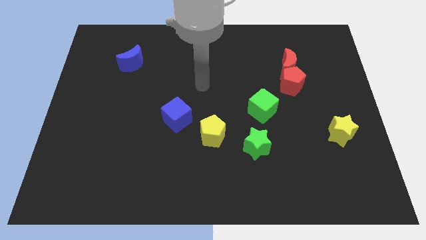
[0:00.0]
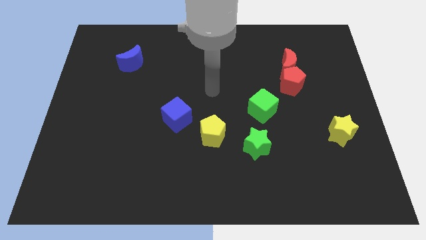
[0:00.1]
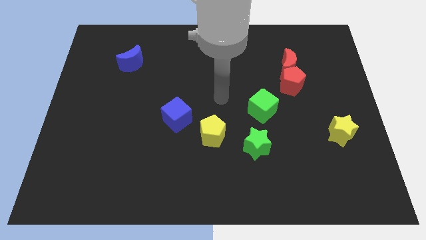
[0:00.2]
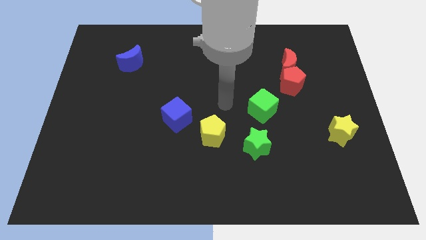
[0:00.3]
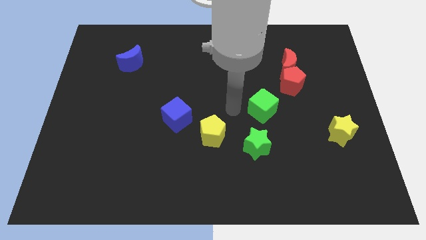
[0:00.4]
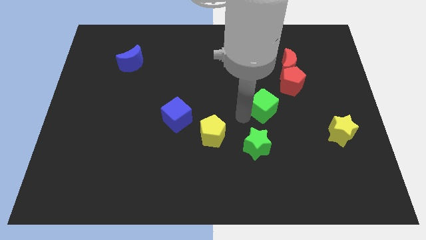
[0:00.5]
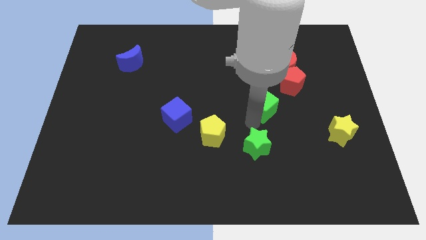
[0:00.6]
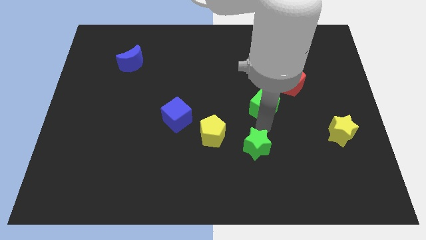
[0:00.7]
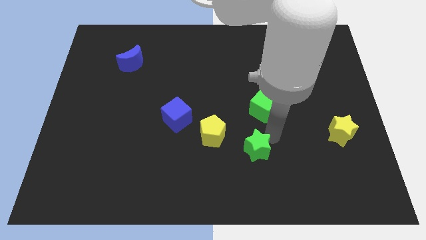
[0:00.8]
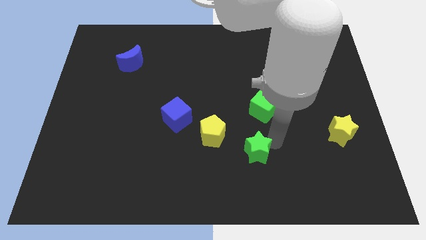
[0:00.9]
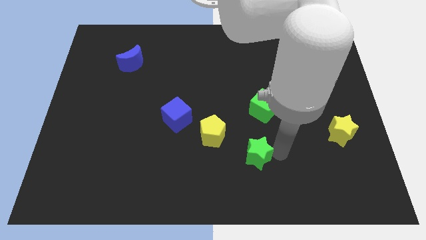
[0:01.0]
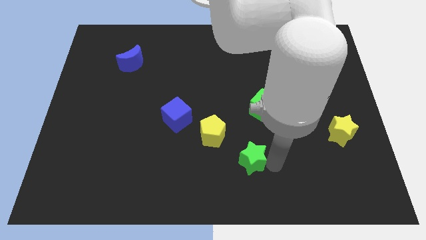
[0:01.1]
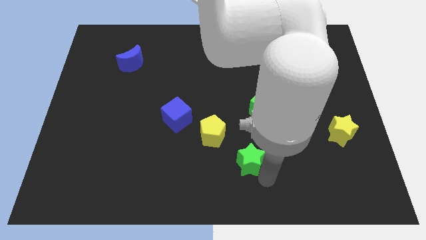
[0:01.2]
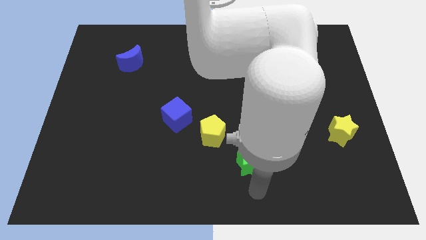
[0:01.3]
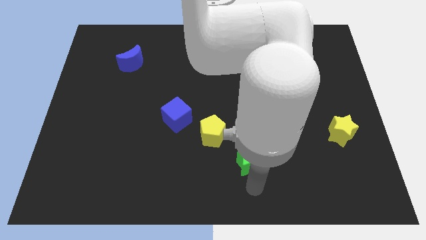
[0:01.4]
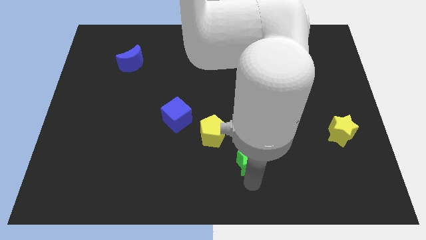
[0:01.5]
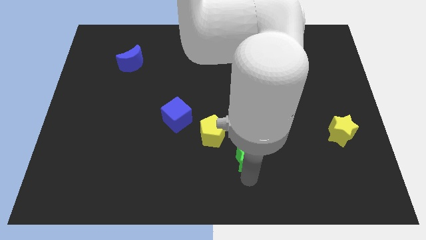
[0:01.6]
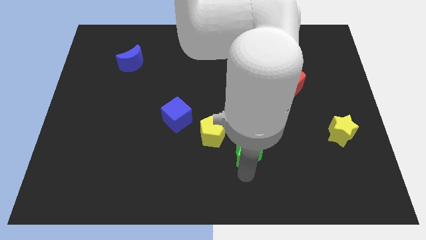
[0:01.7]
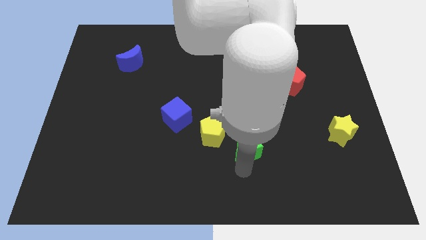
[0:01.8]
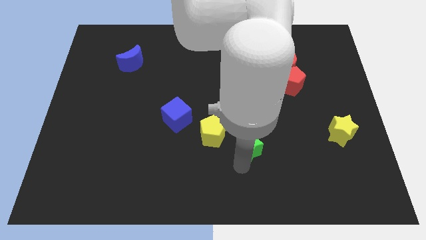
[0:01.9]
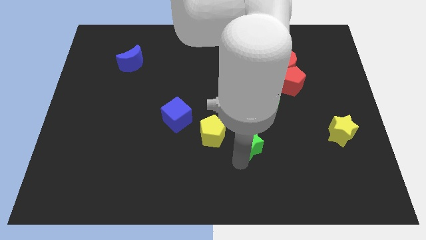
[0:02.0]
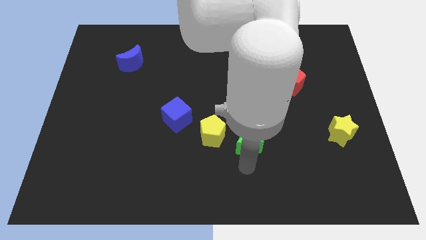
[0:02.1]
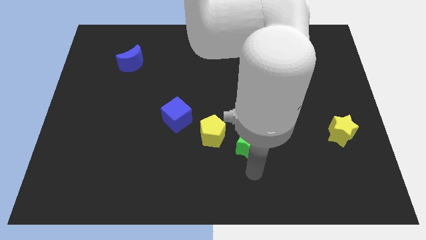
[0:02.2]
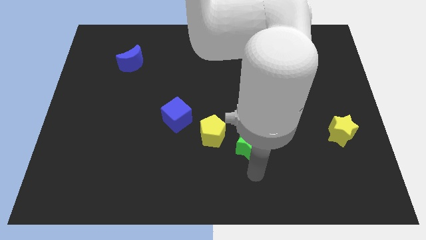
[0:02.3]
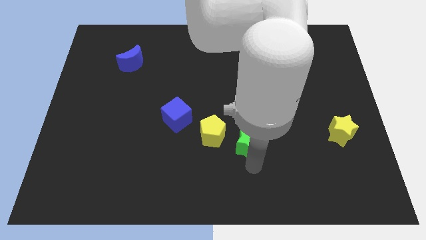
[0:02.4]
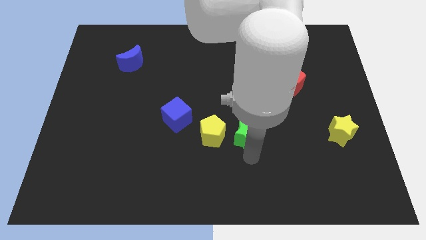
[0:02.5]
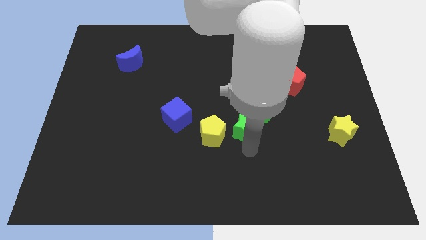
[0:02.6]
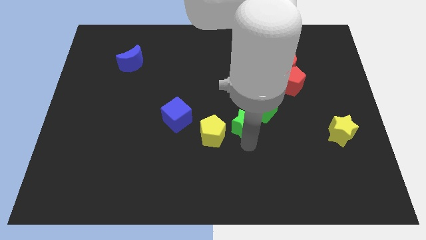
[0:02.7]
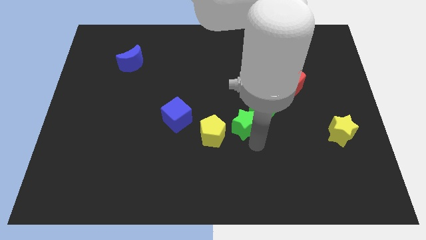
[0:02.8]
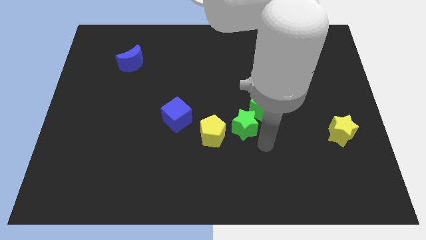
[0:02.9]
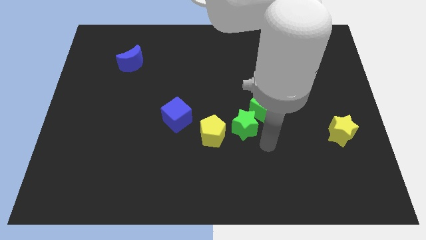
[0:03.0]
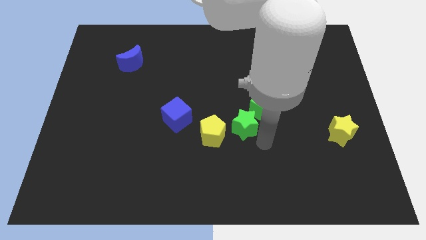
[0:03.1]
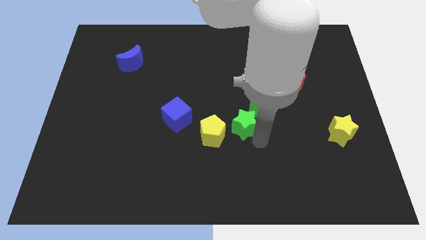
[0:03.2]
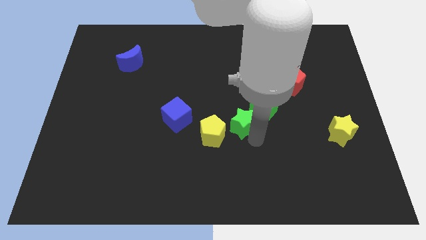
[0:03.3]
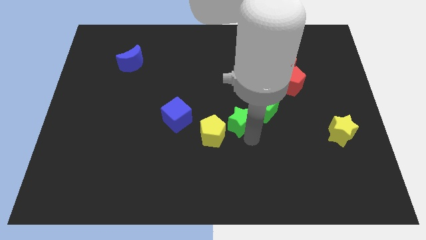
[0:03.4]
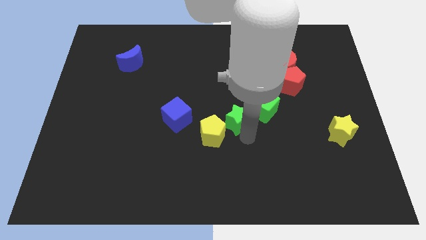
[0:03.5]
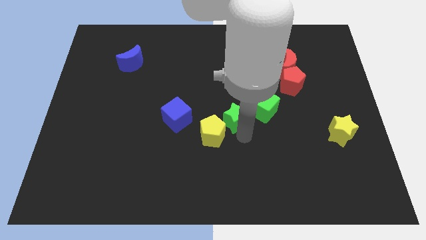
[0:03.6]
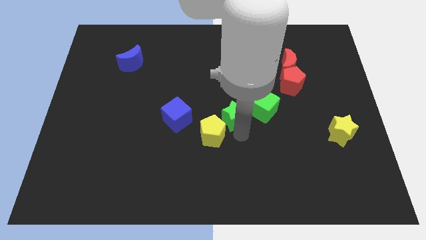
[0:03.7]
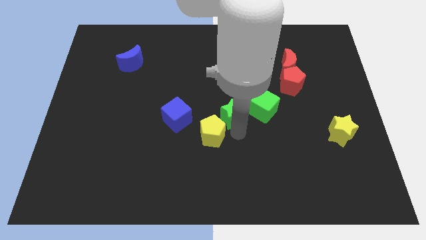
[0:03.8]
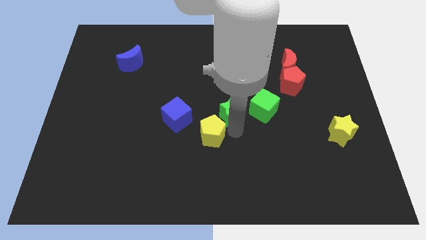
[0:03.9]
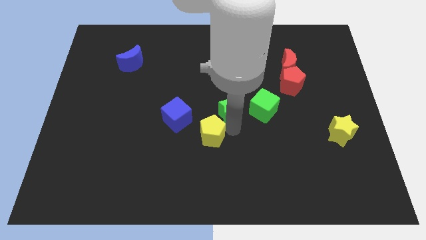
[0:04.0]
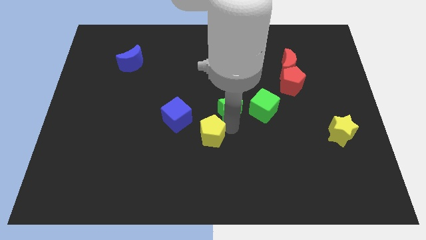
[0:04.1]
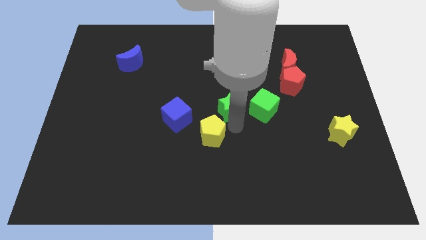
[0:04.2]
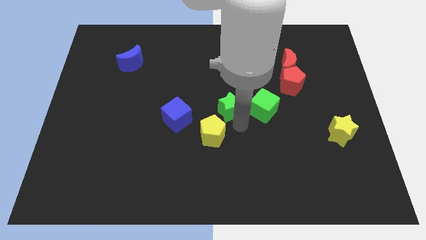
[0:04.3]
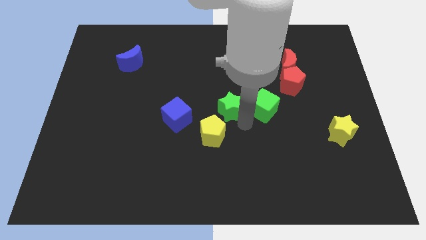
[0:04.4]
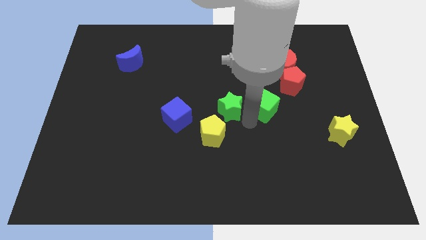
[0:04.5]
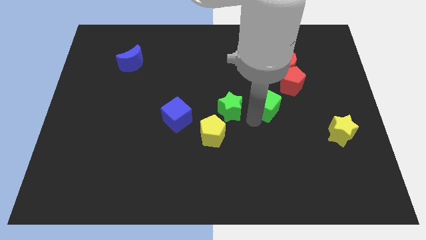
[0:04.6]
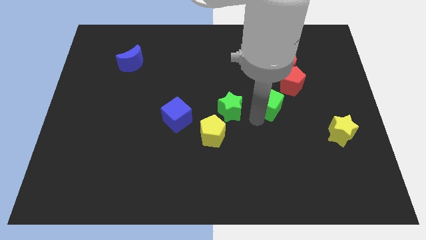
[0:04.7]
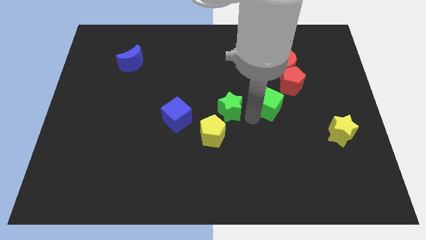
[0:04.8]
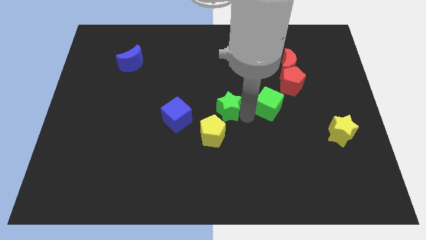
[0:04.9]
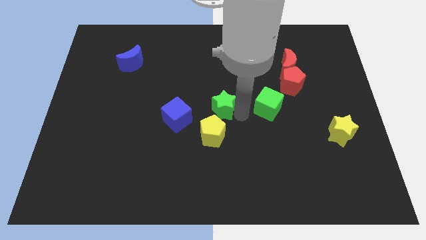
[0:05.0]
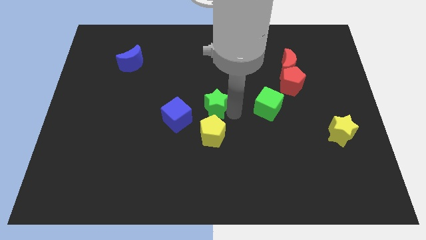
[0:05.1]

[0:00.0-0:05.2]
put the green star to the top right side of the blue cube

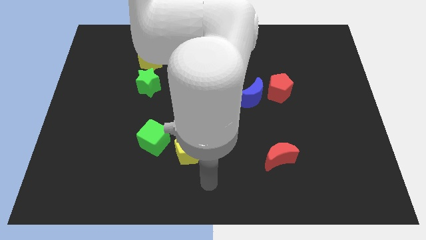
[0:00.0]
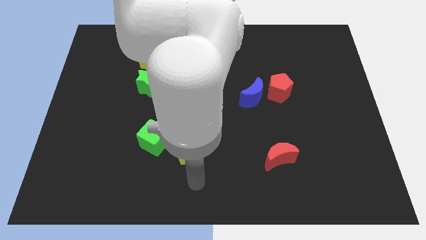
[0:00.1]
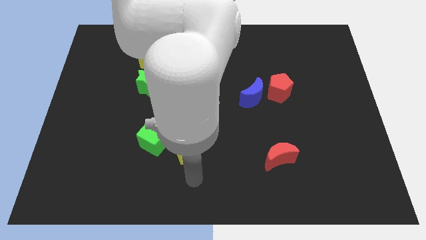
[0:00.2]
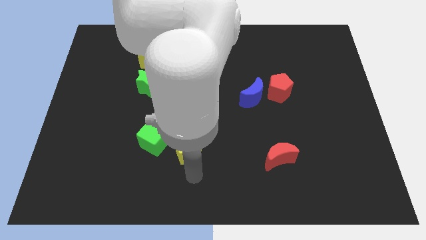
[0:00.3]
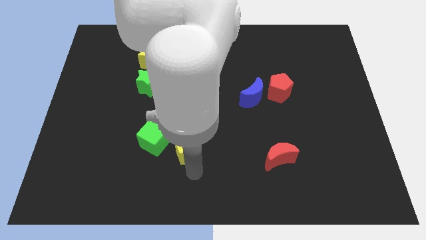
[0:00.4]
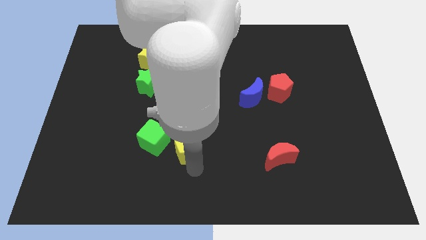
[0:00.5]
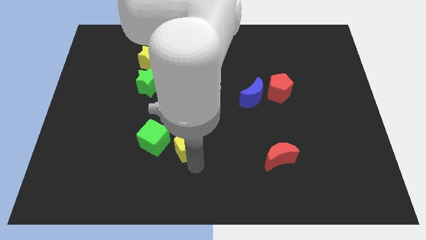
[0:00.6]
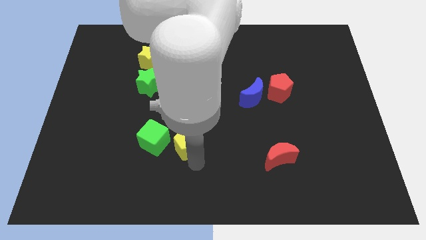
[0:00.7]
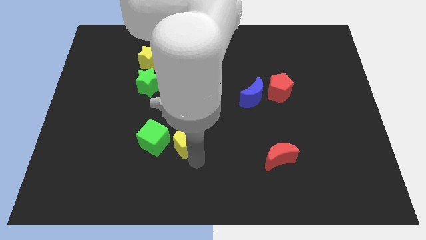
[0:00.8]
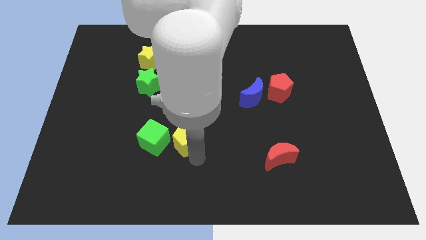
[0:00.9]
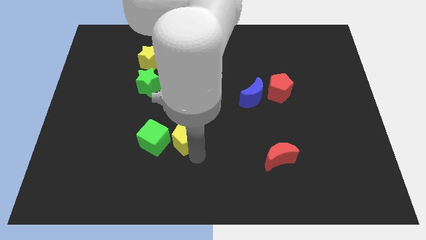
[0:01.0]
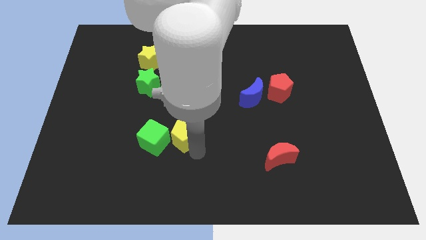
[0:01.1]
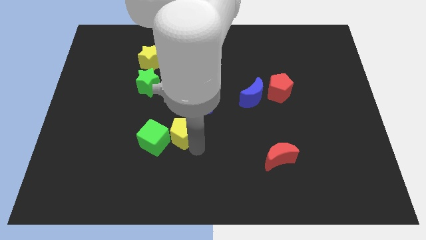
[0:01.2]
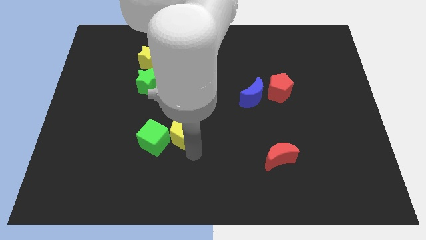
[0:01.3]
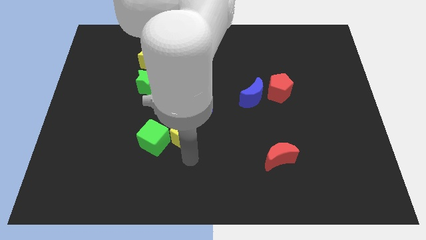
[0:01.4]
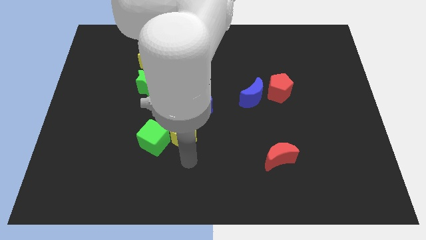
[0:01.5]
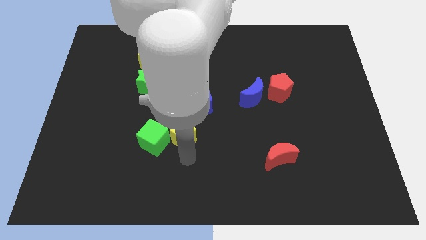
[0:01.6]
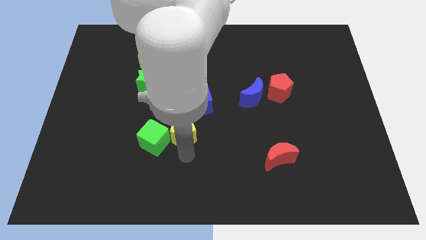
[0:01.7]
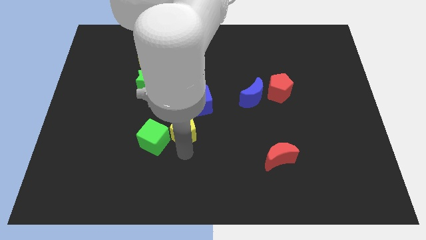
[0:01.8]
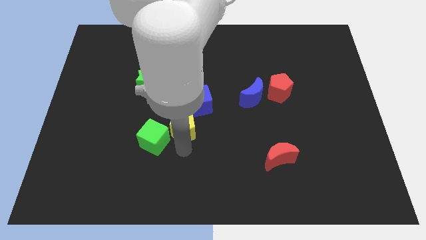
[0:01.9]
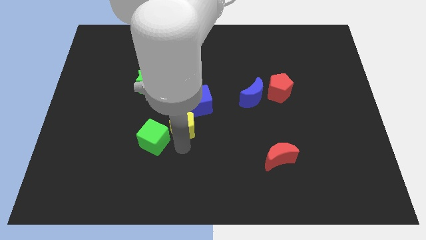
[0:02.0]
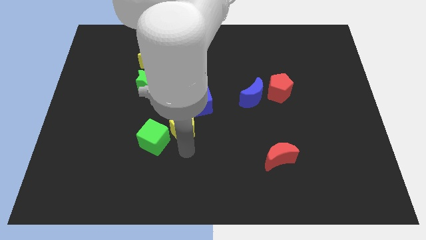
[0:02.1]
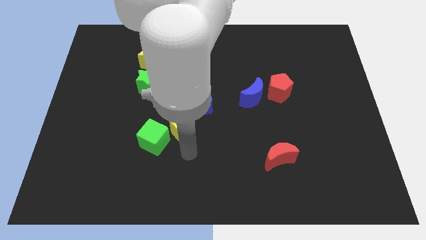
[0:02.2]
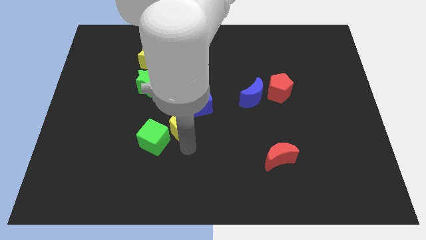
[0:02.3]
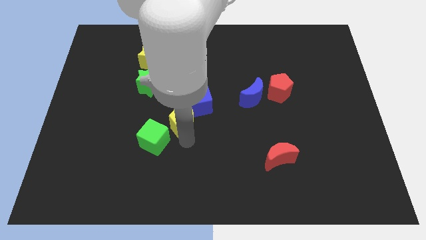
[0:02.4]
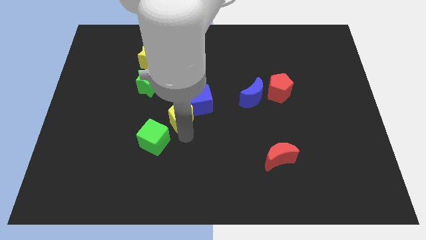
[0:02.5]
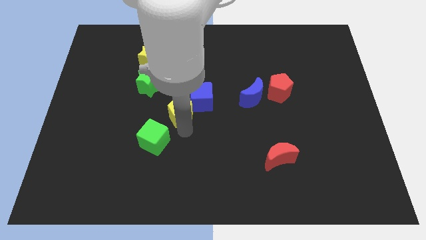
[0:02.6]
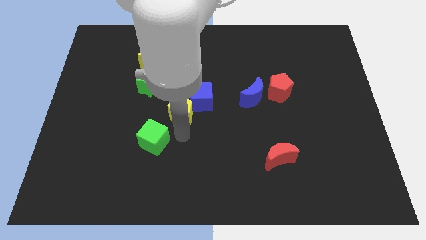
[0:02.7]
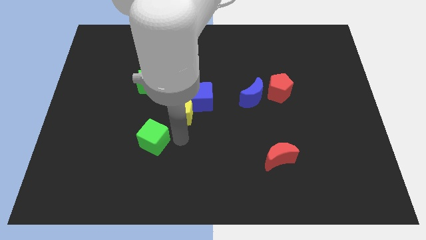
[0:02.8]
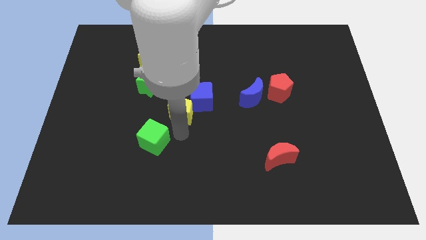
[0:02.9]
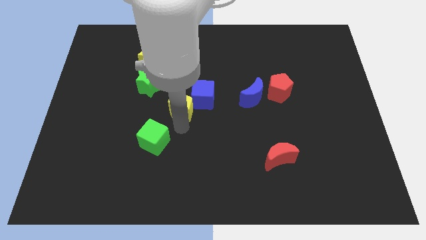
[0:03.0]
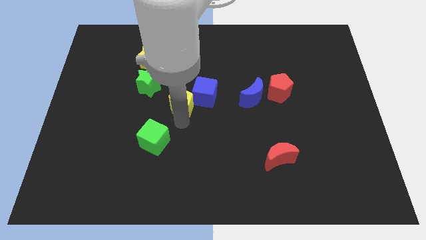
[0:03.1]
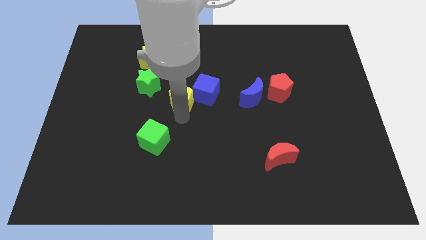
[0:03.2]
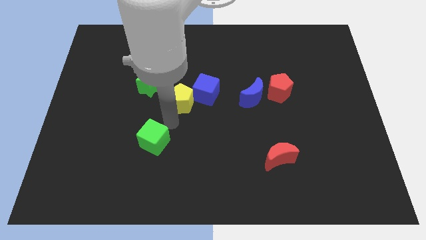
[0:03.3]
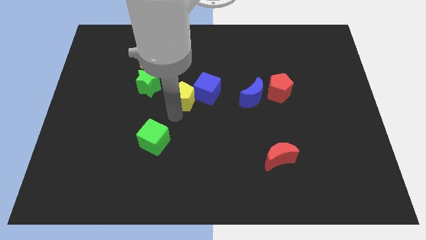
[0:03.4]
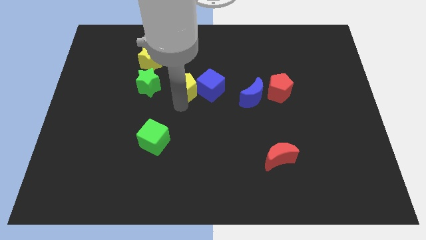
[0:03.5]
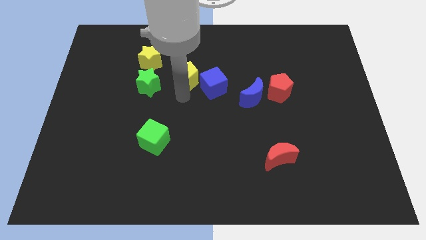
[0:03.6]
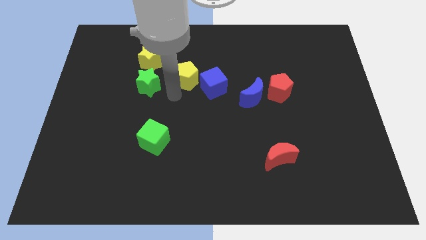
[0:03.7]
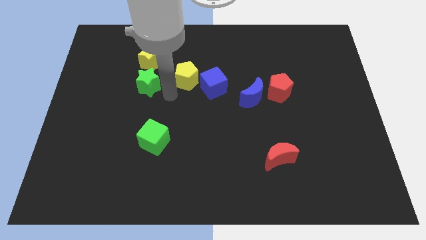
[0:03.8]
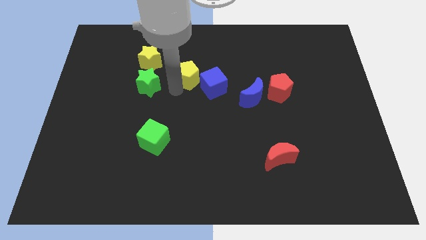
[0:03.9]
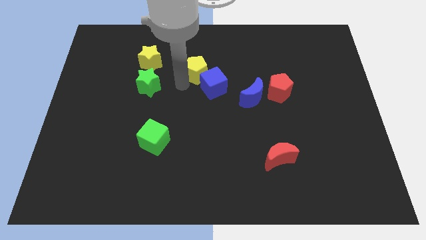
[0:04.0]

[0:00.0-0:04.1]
slide the yellow pentagon above the blue cube
